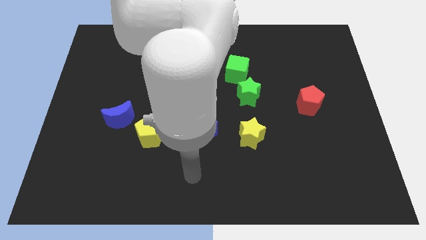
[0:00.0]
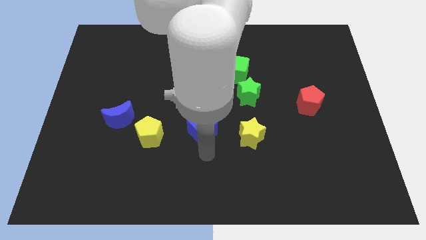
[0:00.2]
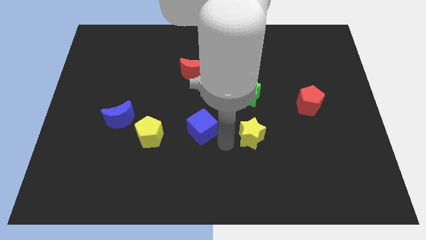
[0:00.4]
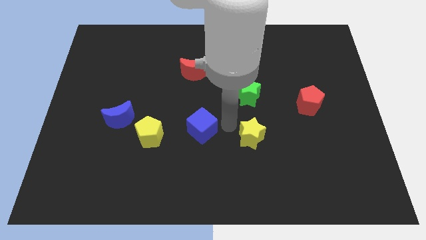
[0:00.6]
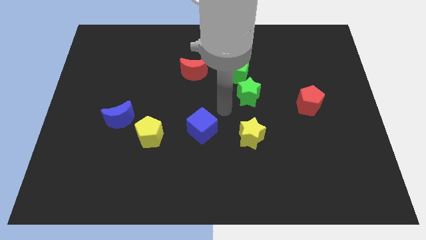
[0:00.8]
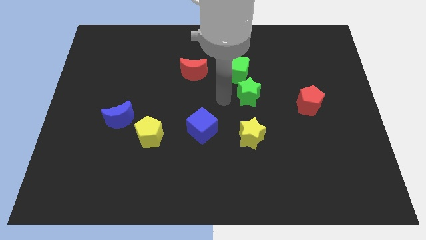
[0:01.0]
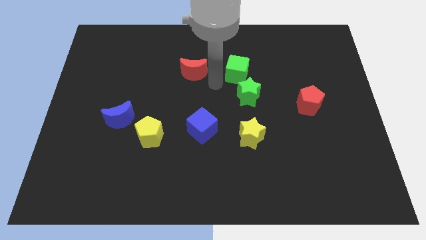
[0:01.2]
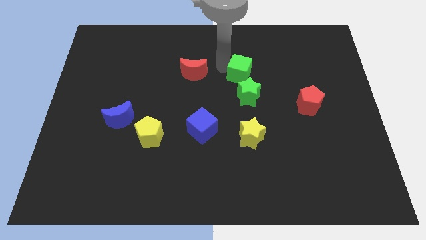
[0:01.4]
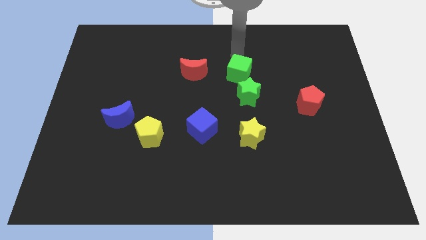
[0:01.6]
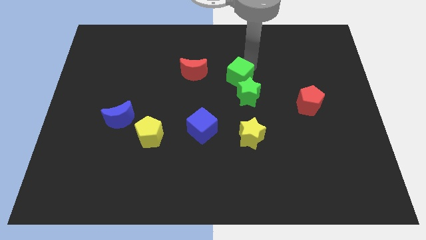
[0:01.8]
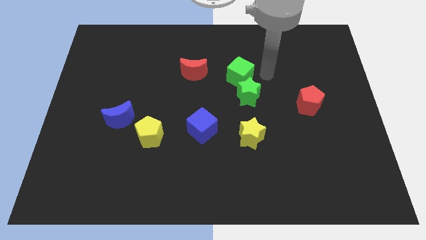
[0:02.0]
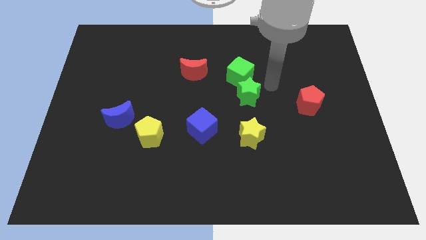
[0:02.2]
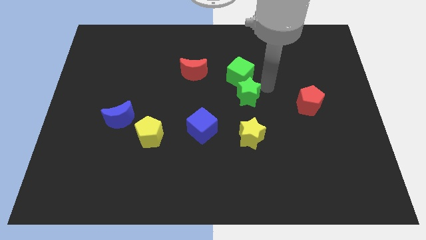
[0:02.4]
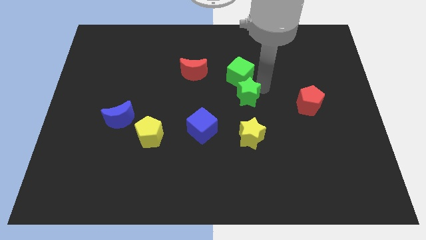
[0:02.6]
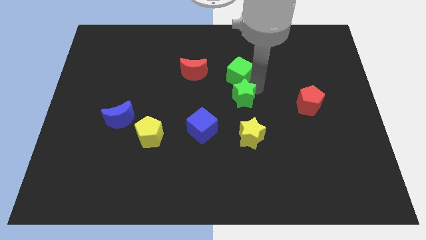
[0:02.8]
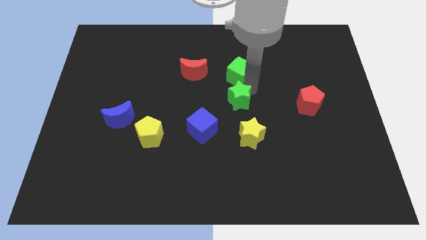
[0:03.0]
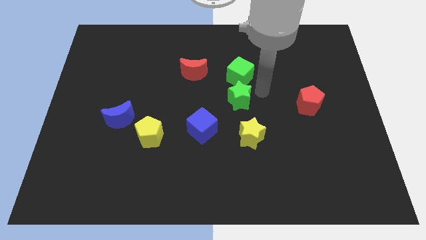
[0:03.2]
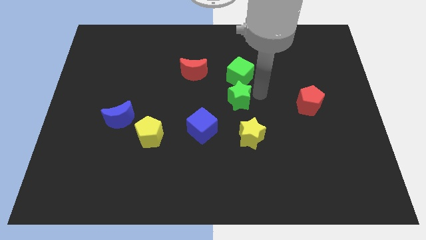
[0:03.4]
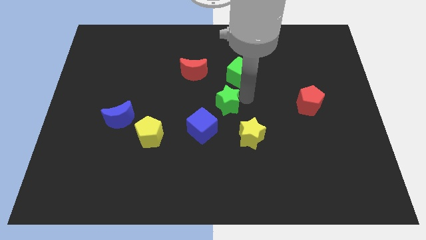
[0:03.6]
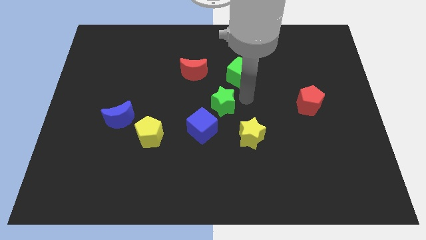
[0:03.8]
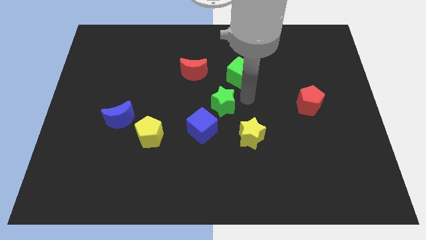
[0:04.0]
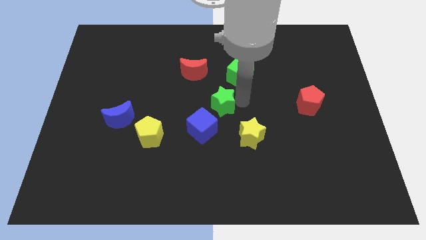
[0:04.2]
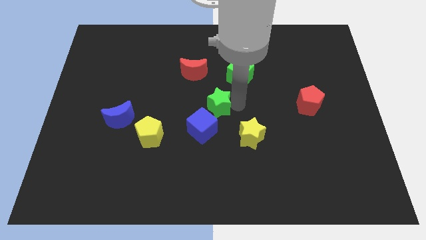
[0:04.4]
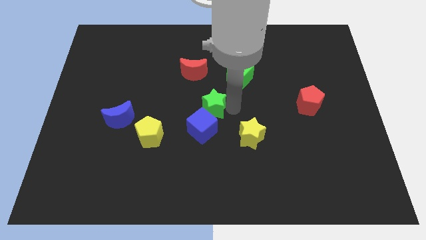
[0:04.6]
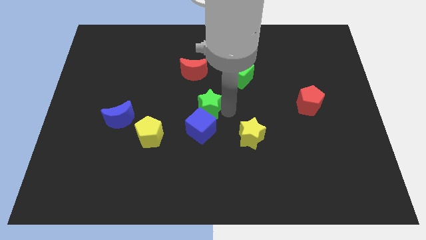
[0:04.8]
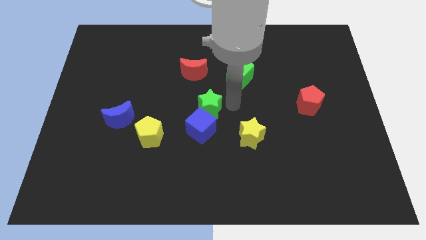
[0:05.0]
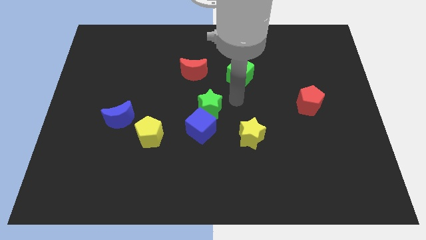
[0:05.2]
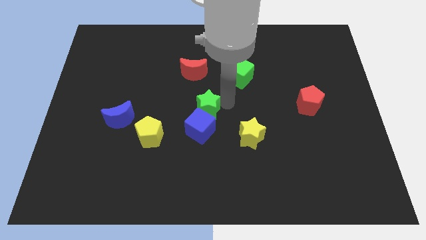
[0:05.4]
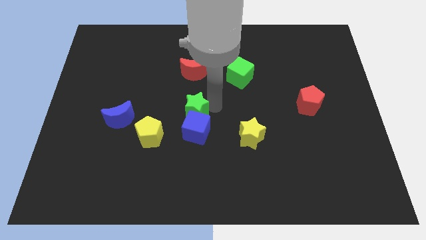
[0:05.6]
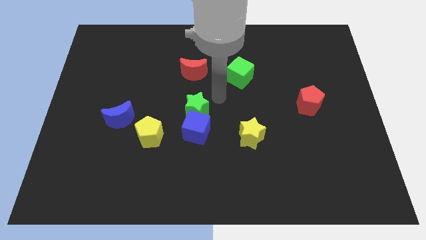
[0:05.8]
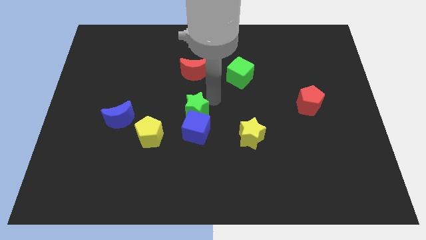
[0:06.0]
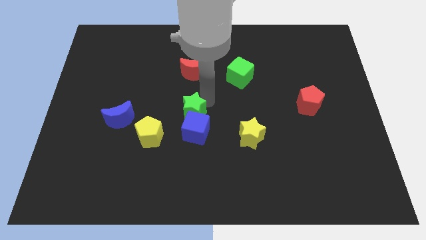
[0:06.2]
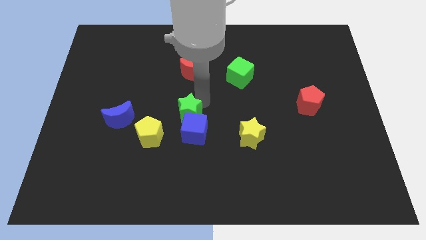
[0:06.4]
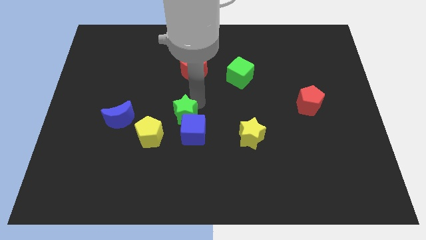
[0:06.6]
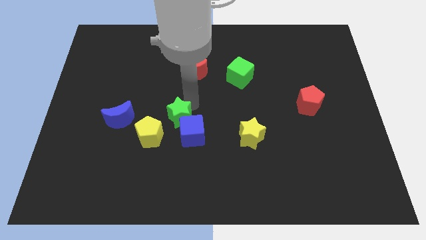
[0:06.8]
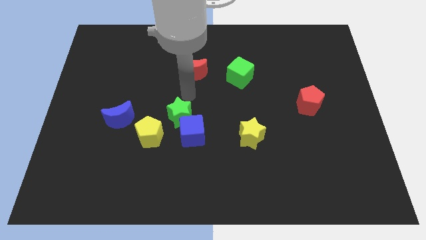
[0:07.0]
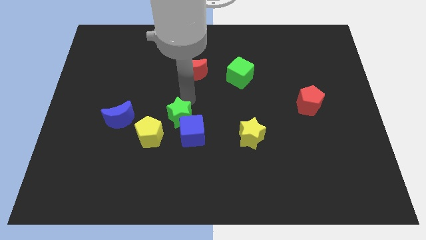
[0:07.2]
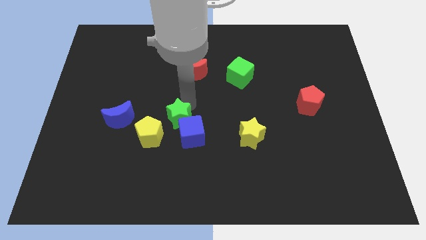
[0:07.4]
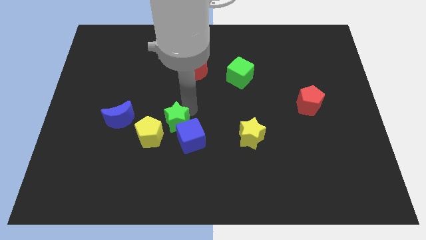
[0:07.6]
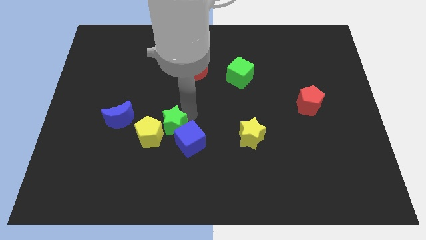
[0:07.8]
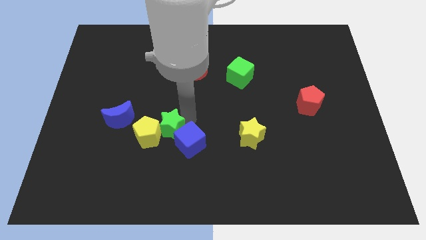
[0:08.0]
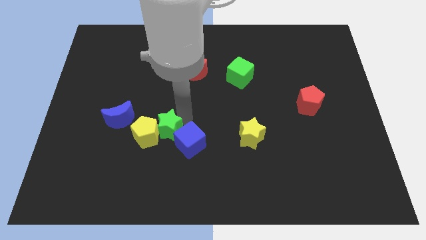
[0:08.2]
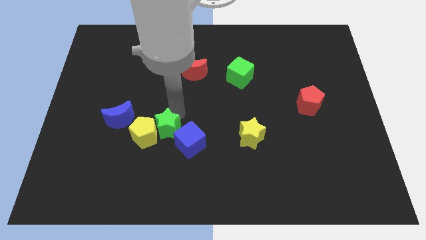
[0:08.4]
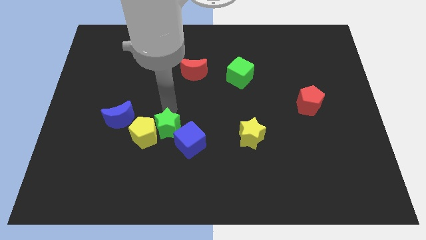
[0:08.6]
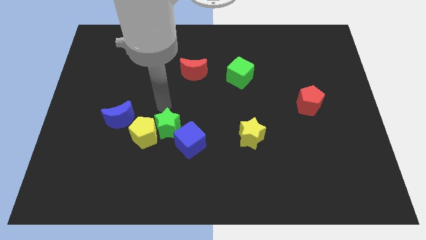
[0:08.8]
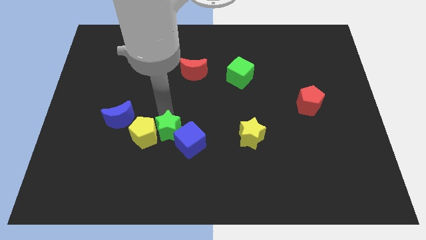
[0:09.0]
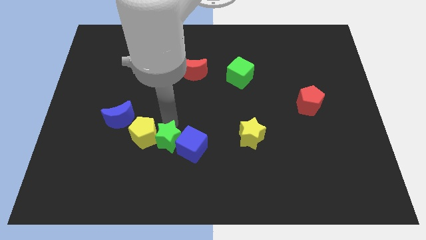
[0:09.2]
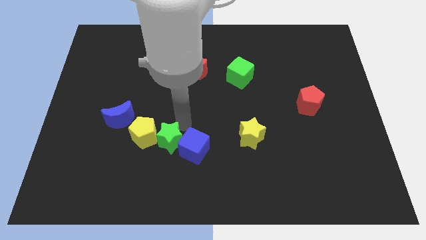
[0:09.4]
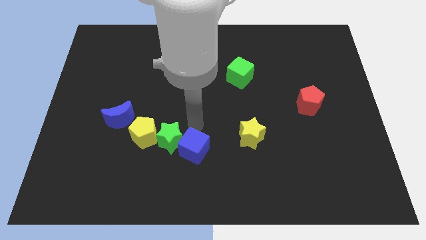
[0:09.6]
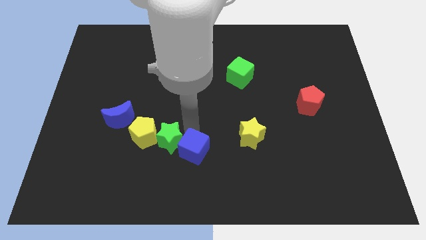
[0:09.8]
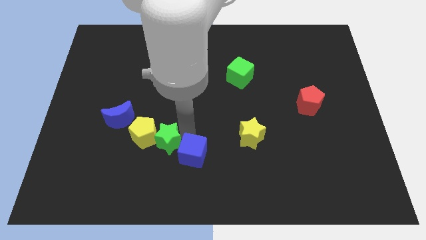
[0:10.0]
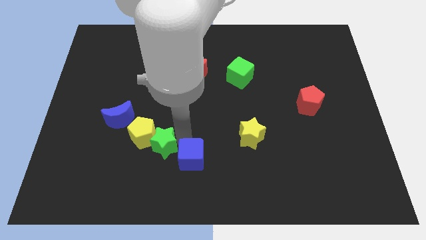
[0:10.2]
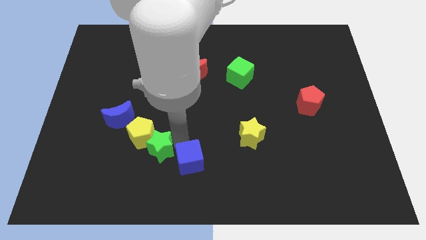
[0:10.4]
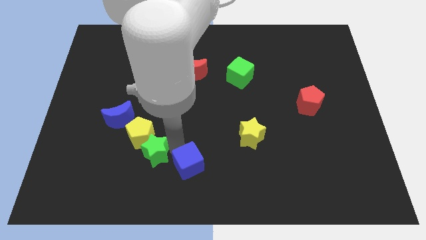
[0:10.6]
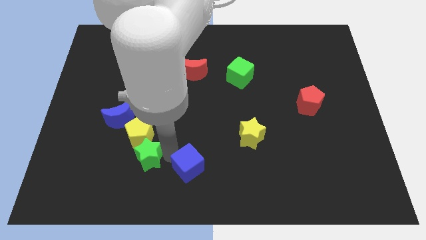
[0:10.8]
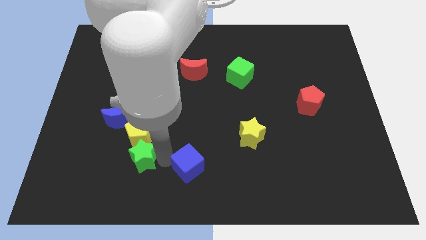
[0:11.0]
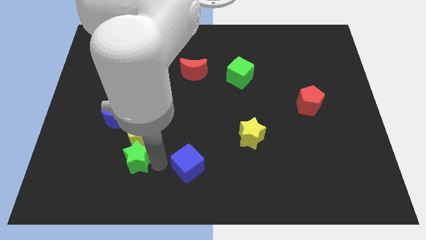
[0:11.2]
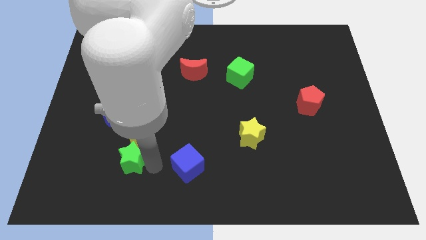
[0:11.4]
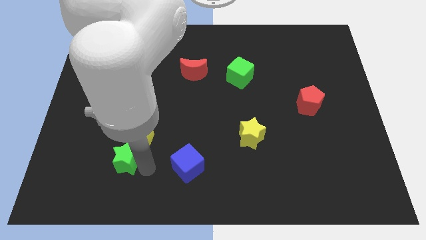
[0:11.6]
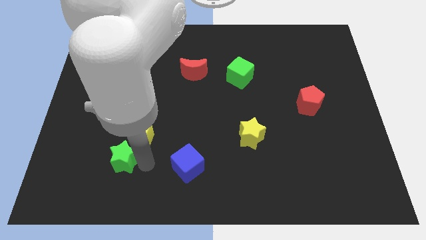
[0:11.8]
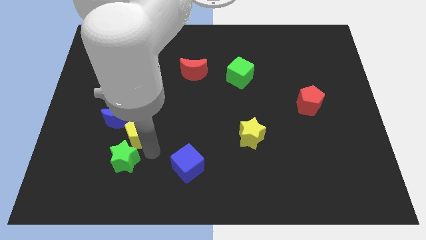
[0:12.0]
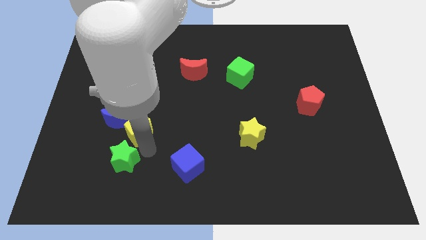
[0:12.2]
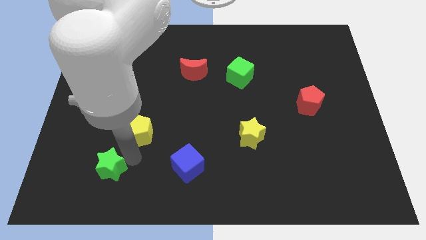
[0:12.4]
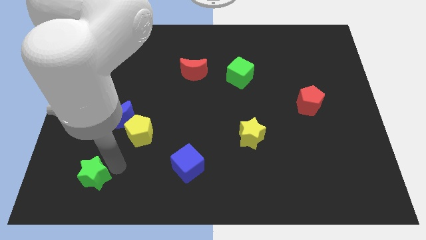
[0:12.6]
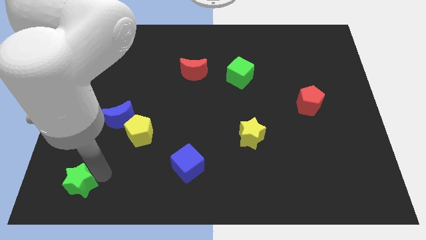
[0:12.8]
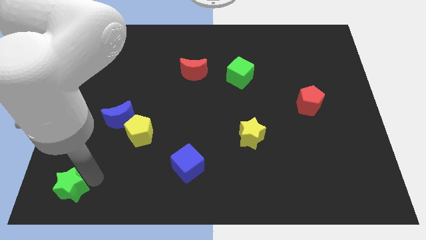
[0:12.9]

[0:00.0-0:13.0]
move the green star to the bottom left
